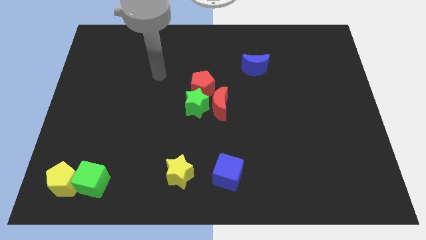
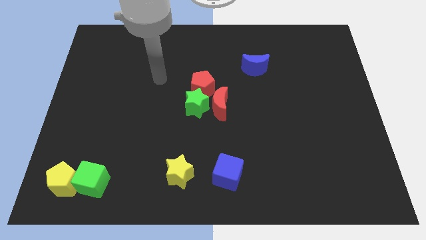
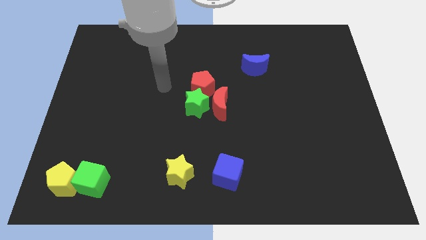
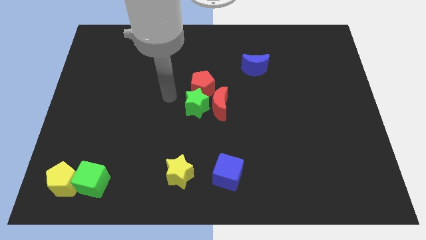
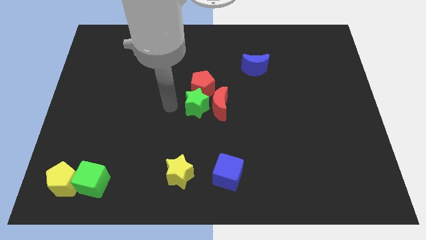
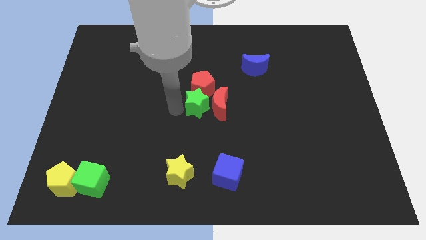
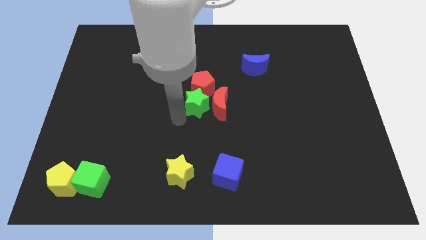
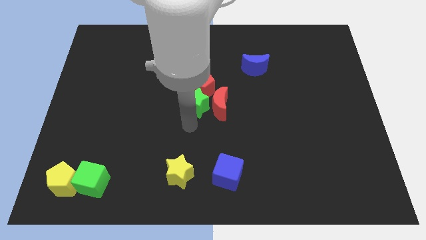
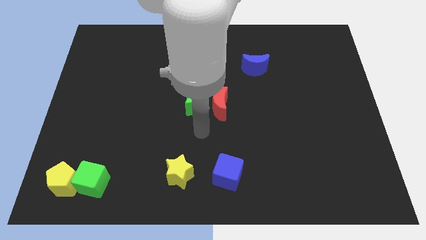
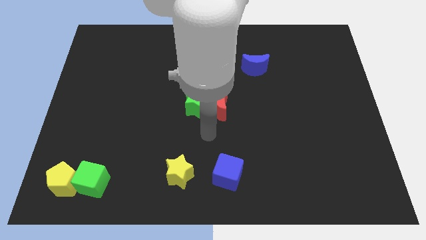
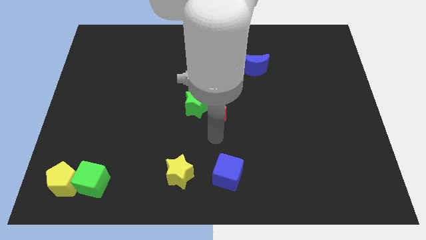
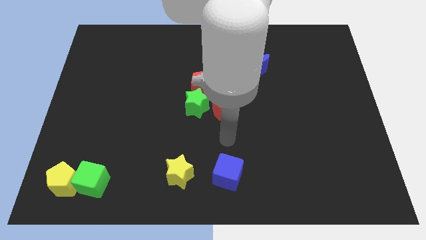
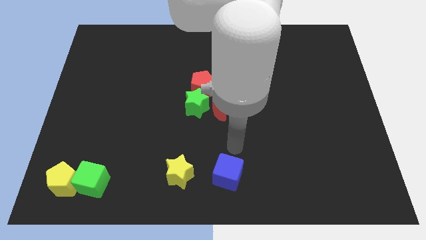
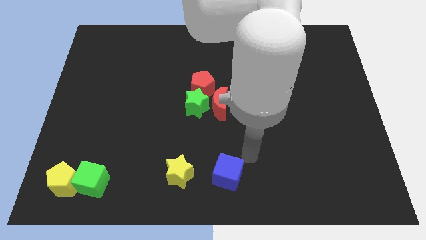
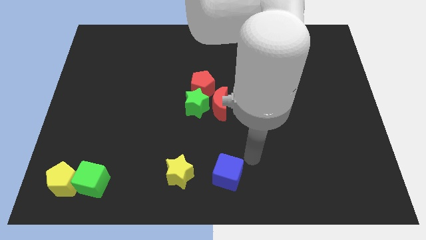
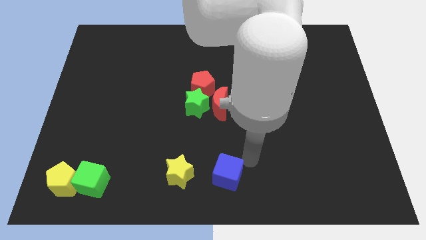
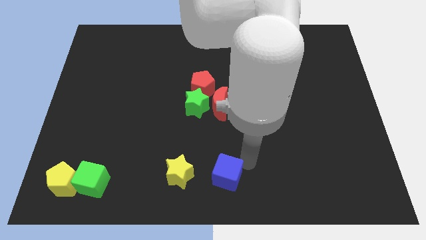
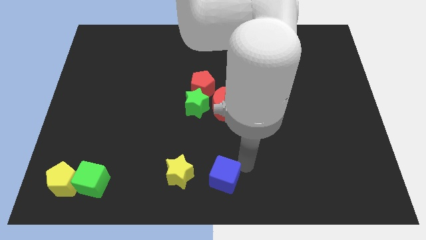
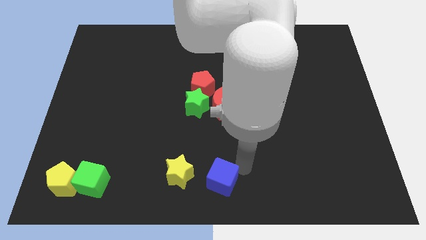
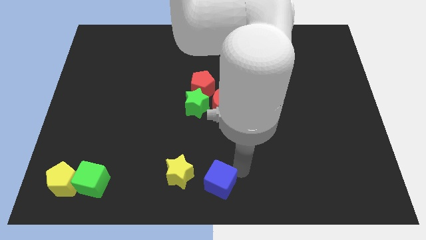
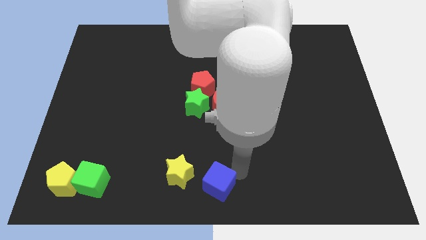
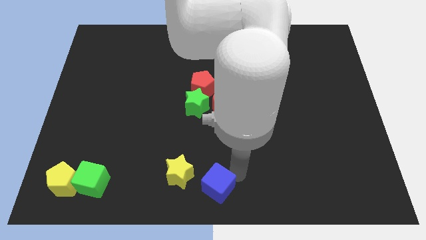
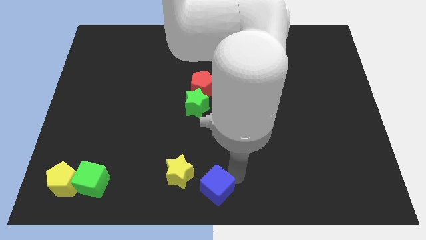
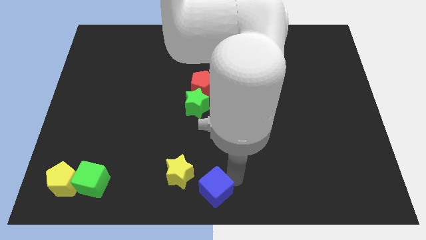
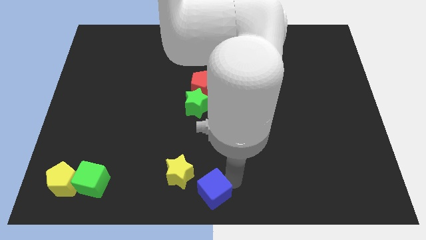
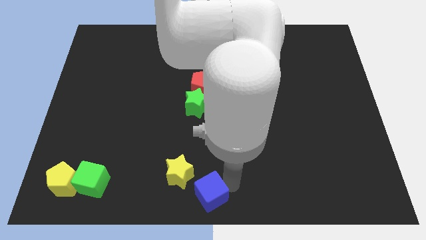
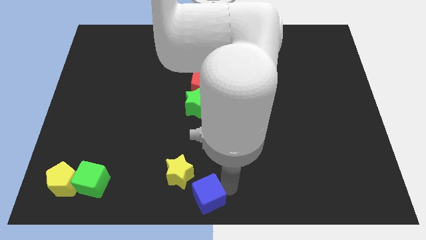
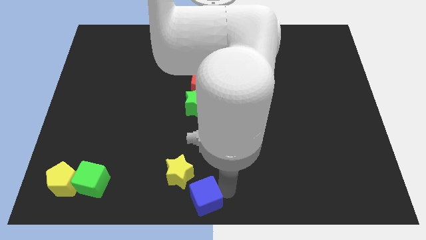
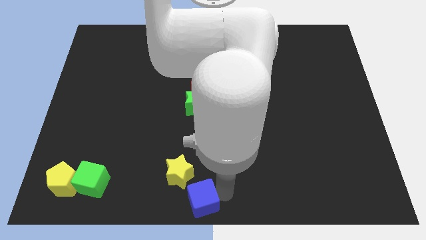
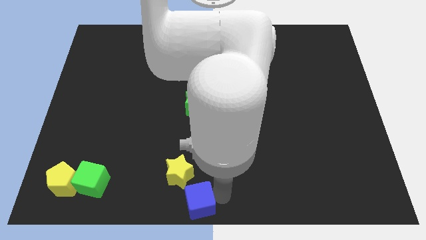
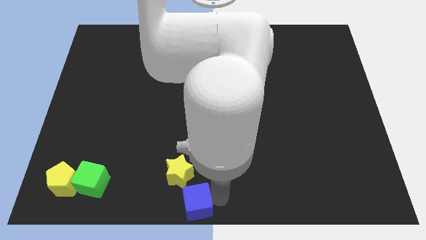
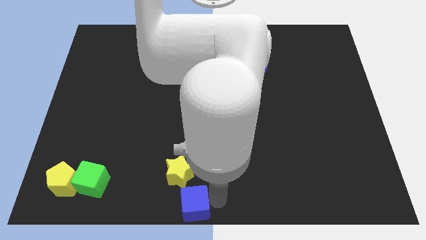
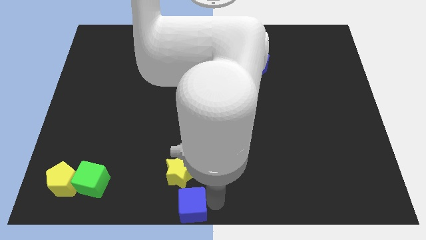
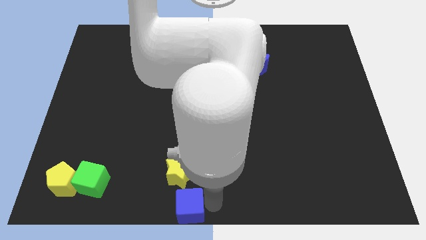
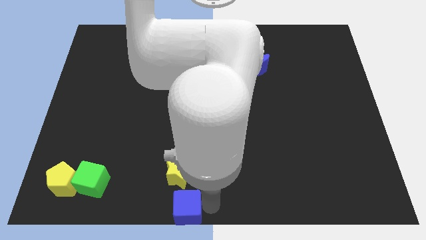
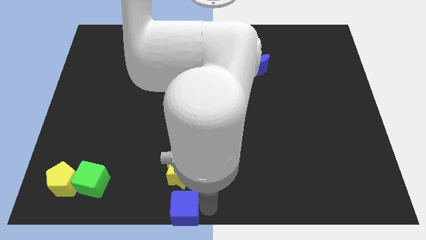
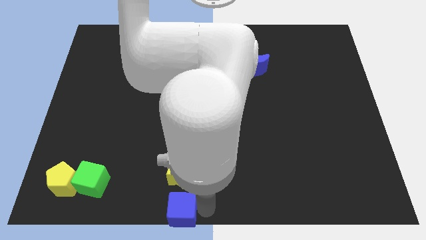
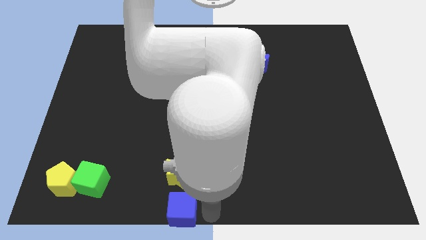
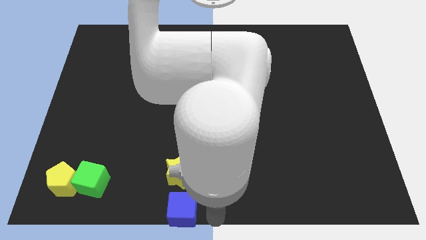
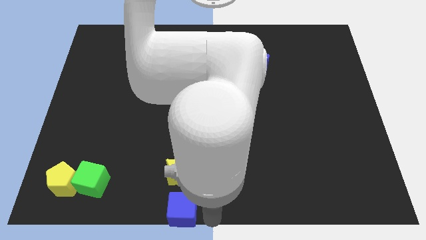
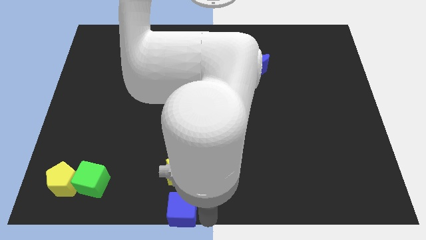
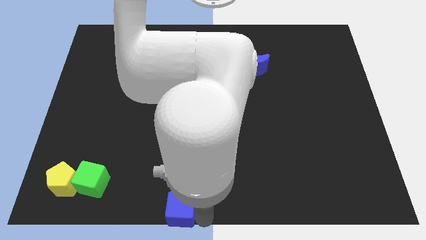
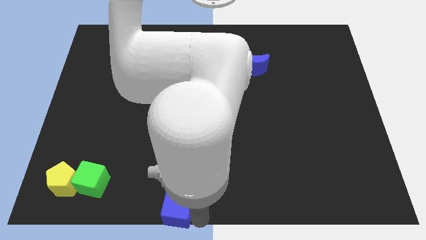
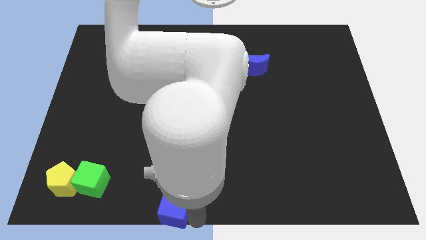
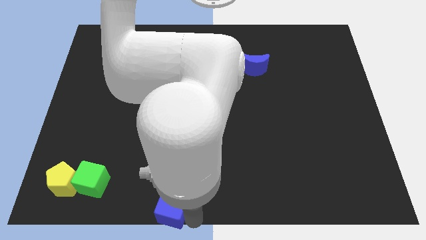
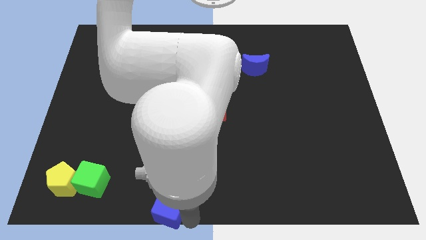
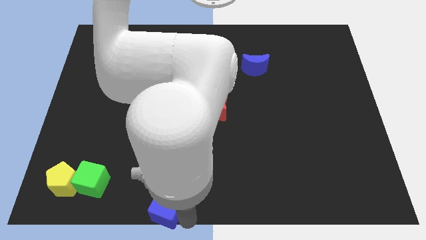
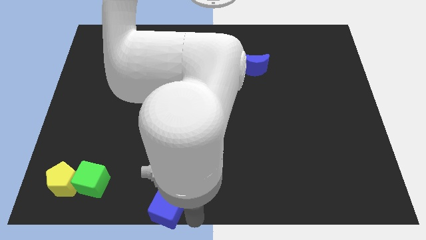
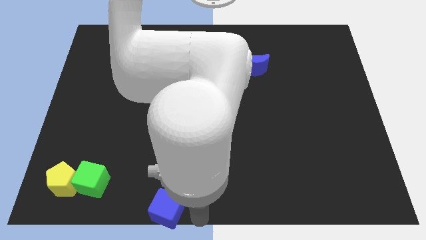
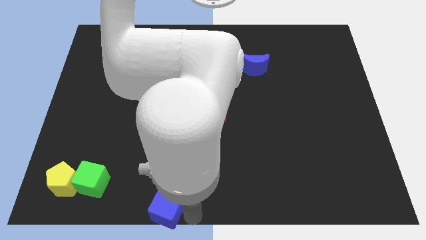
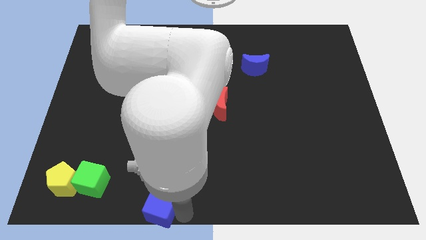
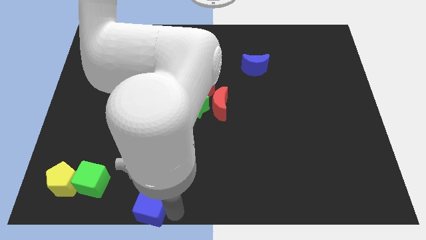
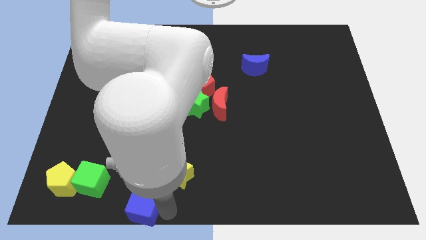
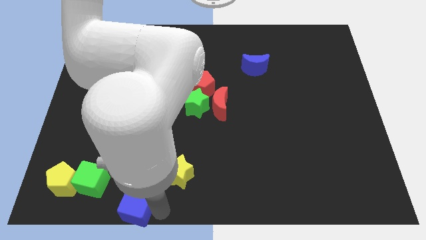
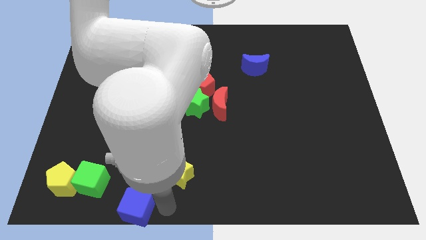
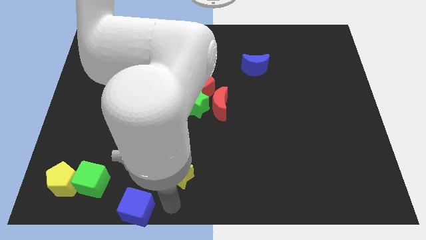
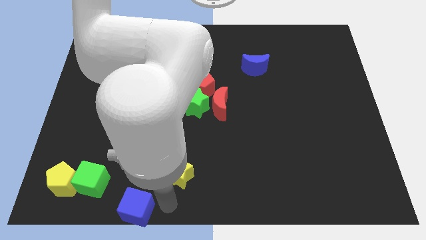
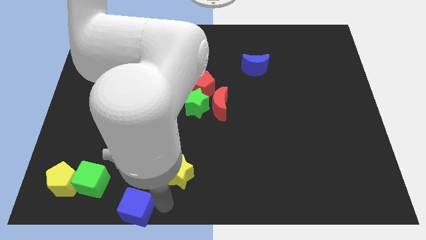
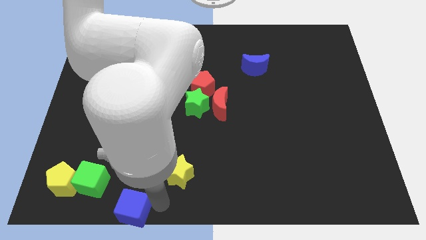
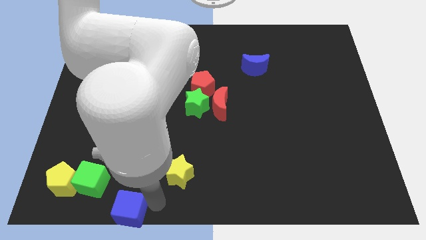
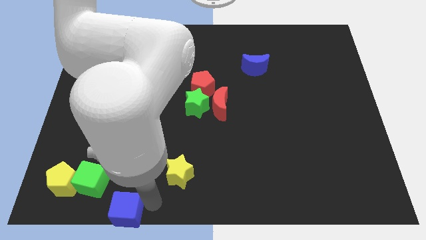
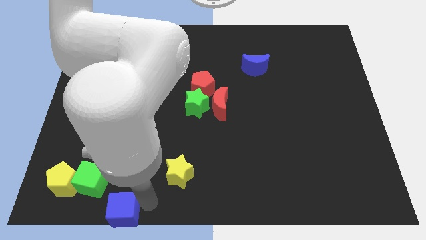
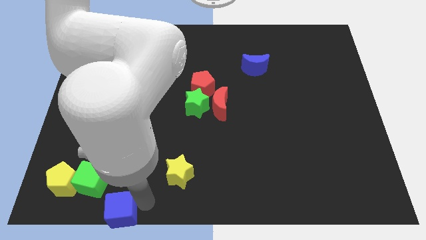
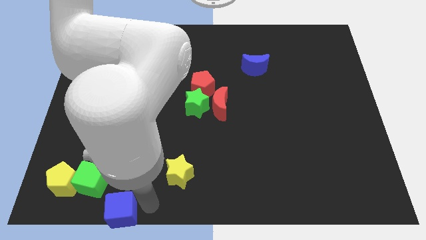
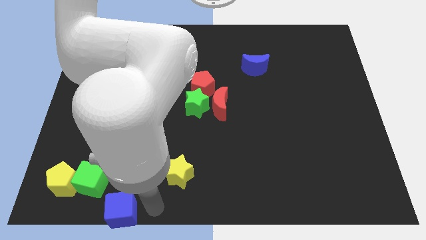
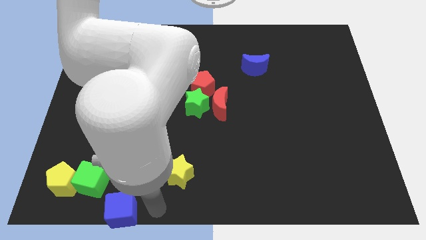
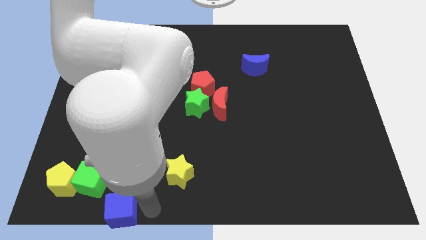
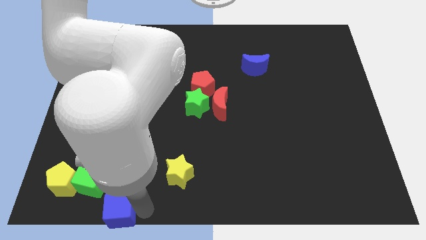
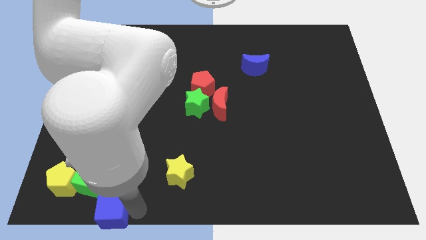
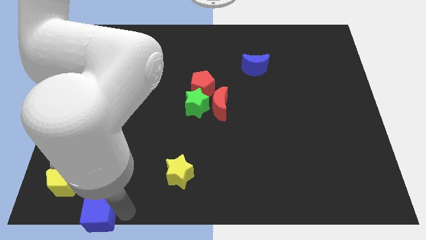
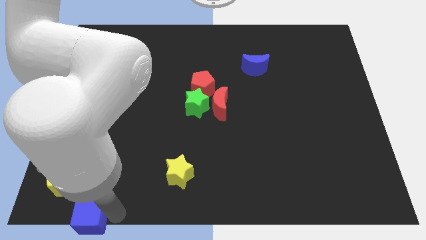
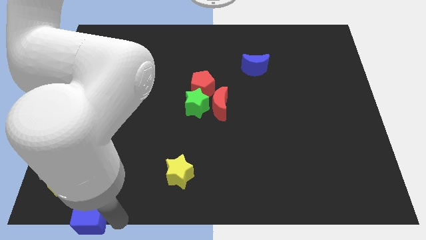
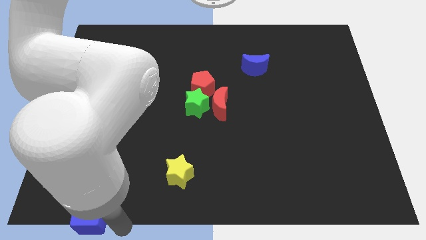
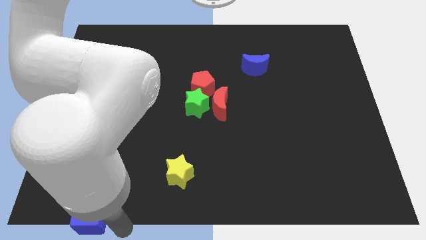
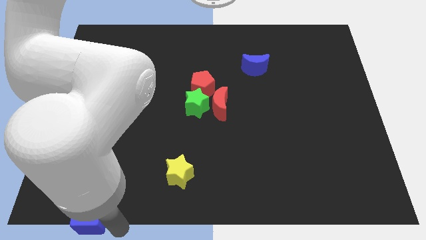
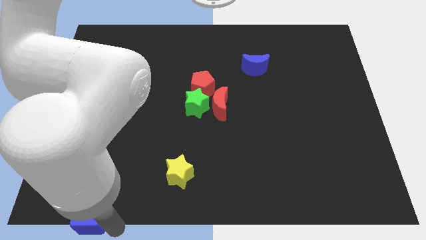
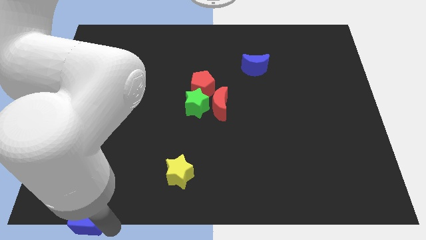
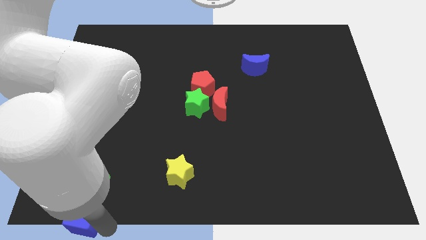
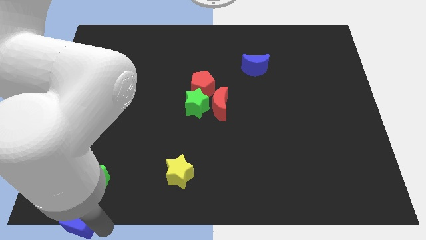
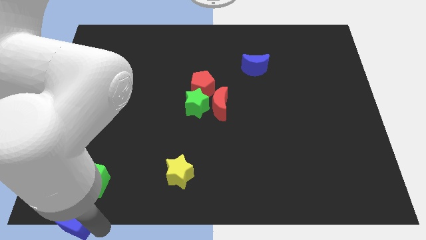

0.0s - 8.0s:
move the blue cube to the bottom left
